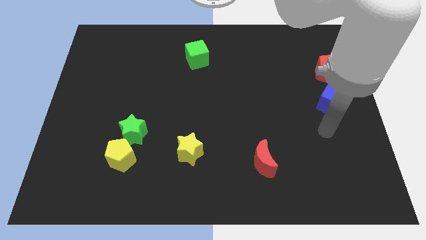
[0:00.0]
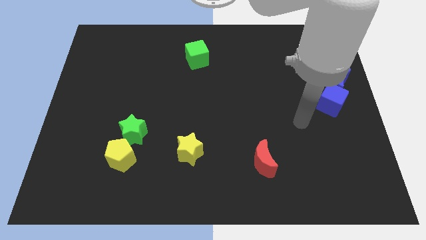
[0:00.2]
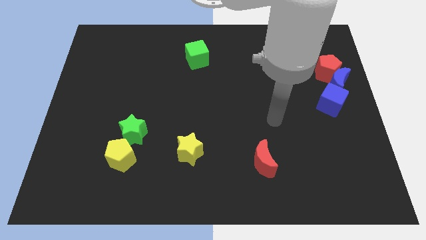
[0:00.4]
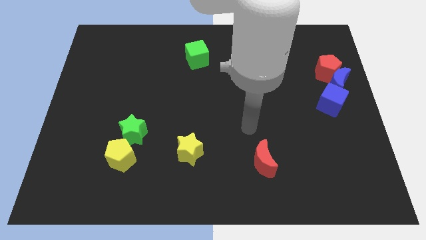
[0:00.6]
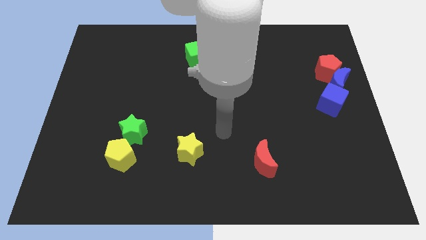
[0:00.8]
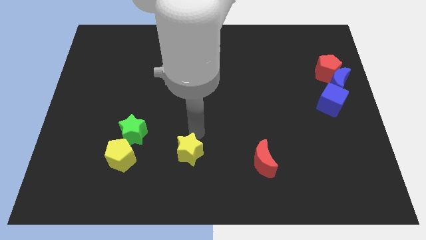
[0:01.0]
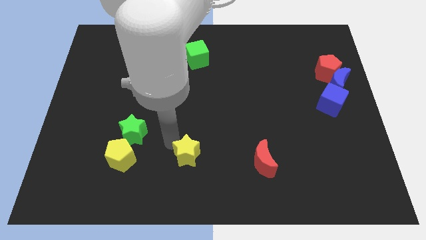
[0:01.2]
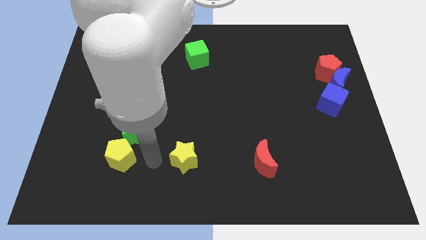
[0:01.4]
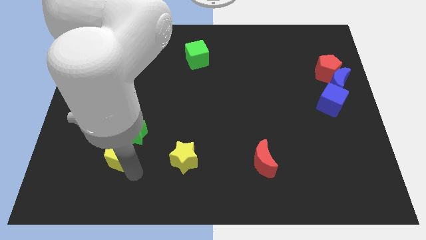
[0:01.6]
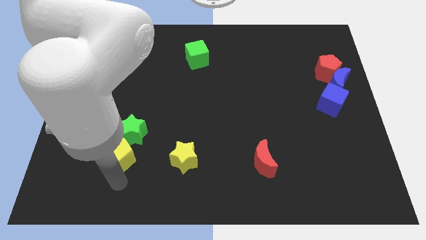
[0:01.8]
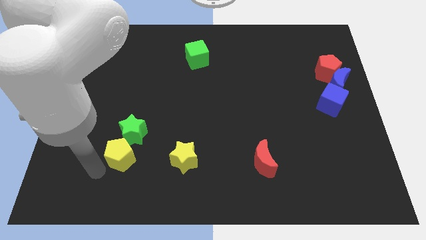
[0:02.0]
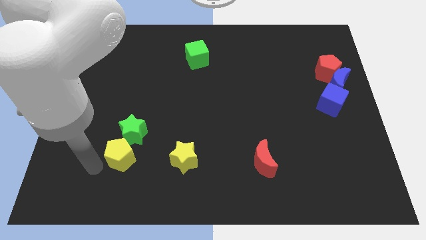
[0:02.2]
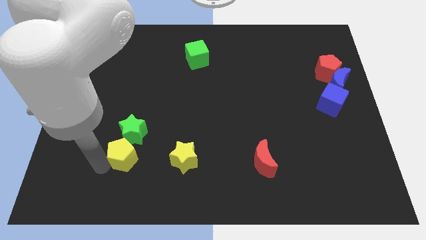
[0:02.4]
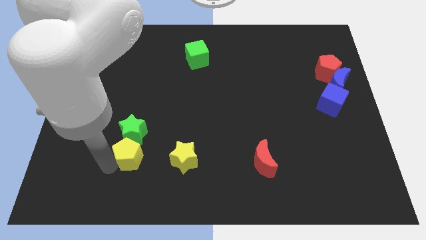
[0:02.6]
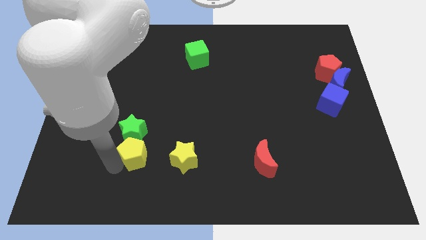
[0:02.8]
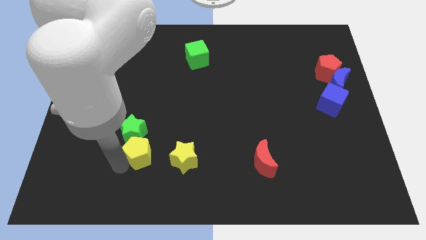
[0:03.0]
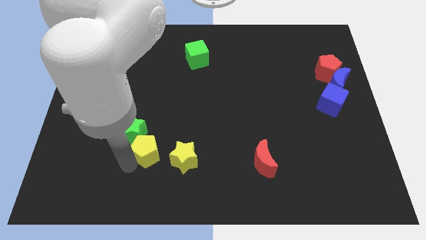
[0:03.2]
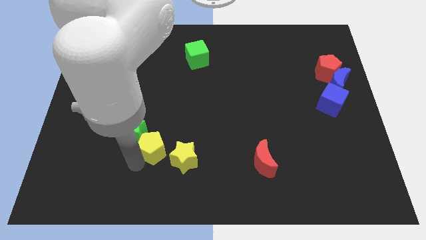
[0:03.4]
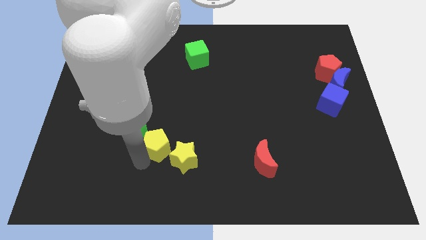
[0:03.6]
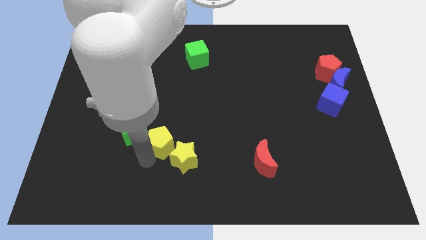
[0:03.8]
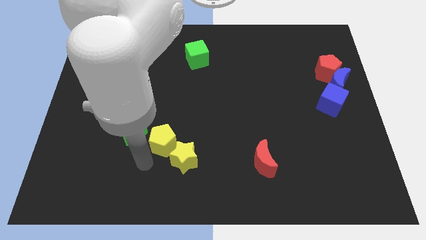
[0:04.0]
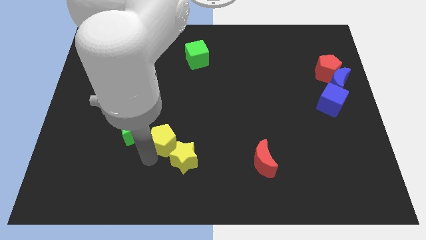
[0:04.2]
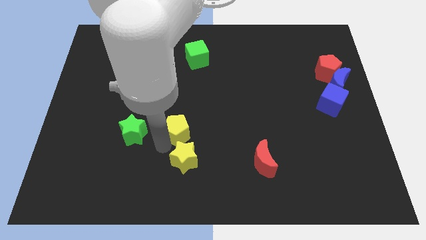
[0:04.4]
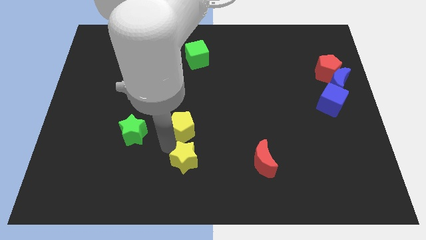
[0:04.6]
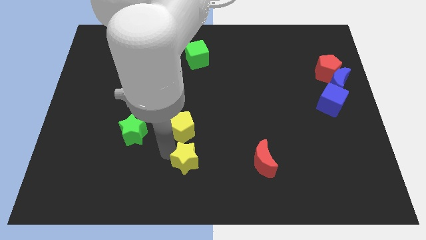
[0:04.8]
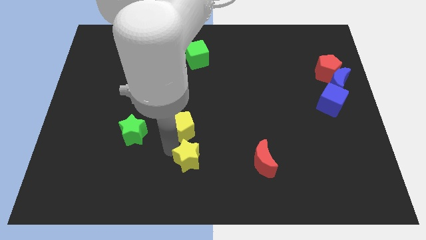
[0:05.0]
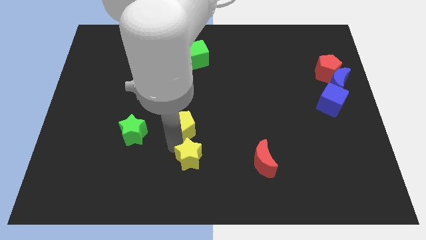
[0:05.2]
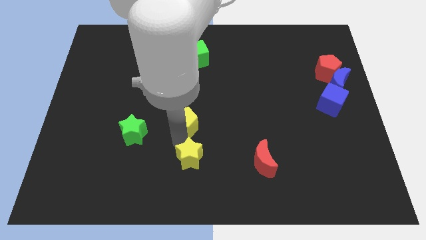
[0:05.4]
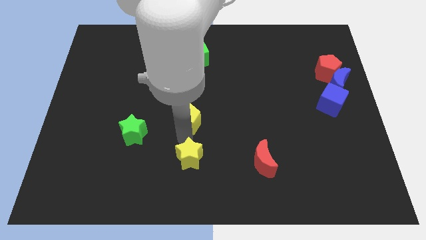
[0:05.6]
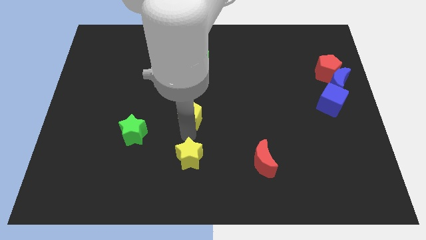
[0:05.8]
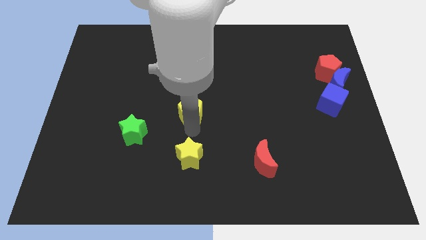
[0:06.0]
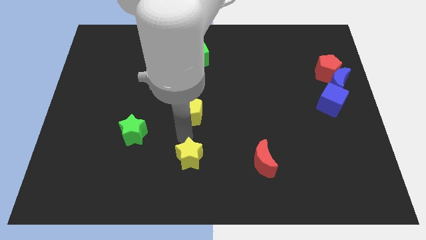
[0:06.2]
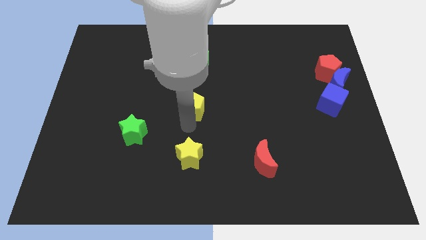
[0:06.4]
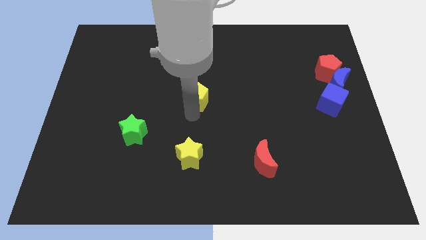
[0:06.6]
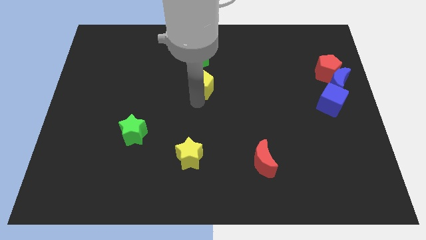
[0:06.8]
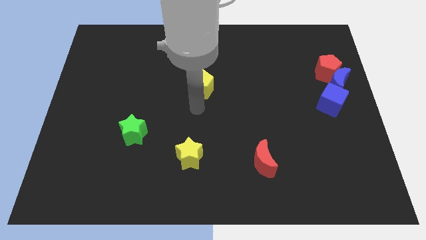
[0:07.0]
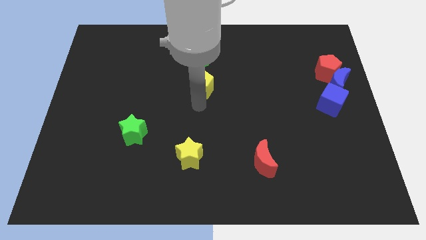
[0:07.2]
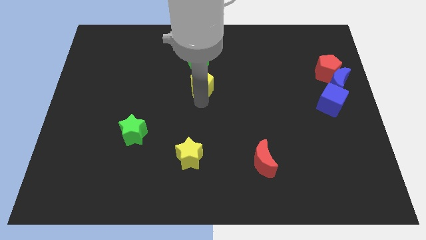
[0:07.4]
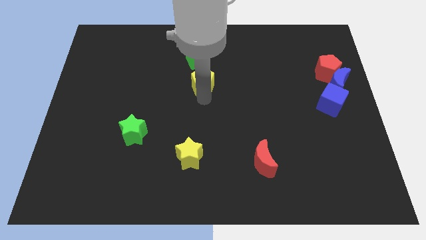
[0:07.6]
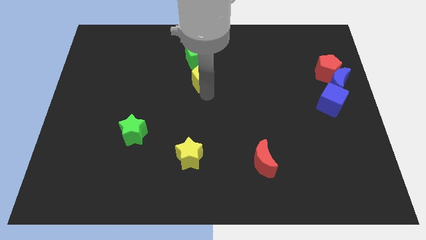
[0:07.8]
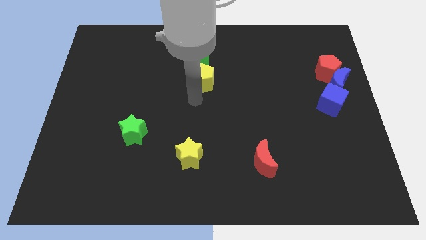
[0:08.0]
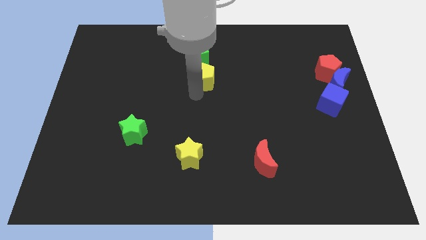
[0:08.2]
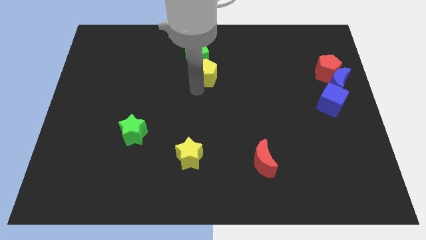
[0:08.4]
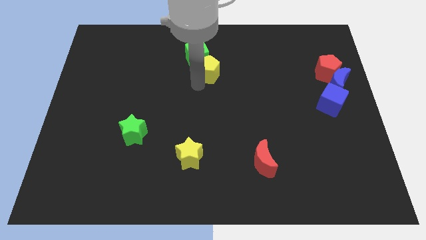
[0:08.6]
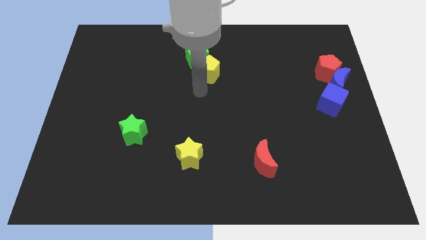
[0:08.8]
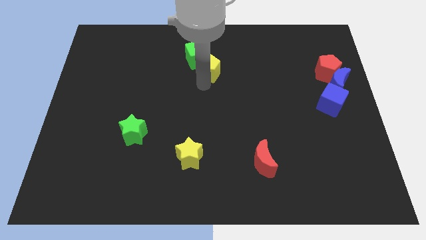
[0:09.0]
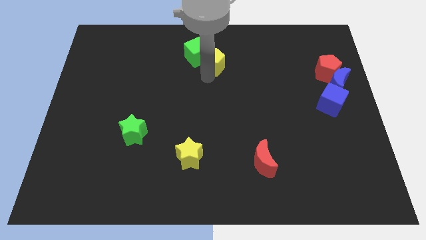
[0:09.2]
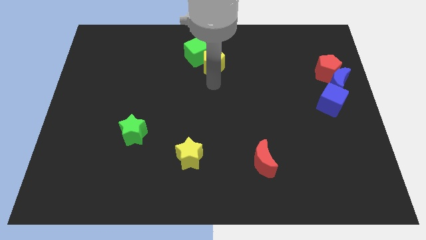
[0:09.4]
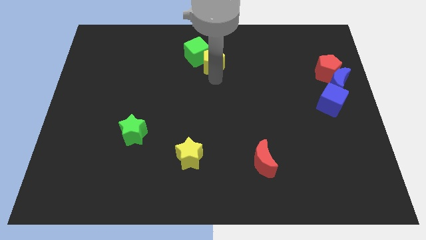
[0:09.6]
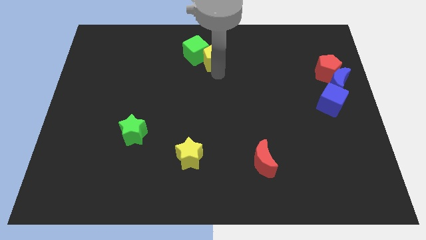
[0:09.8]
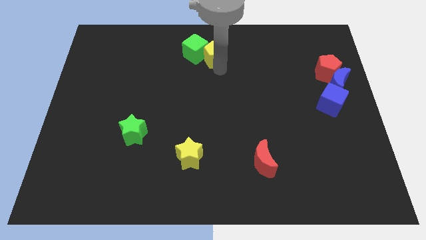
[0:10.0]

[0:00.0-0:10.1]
put the yellow pentagon to the top side

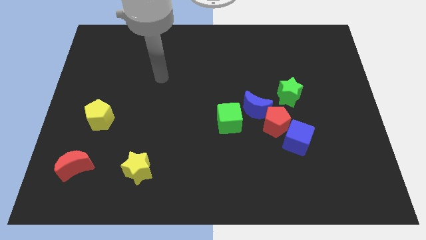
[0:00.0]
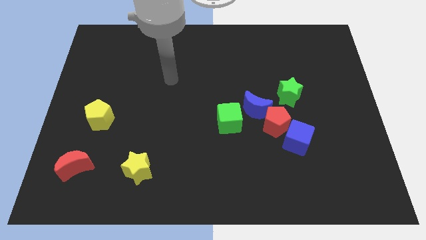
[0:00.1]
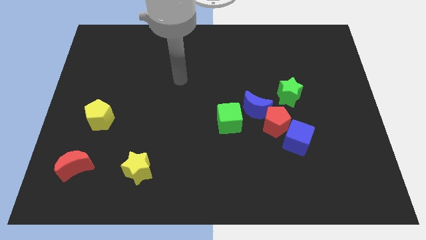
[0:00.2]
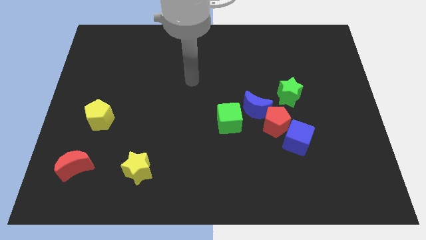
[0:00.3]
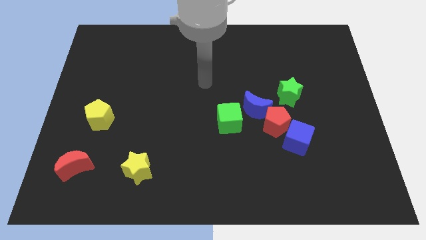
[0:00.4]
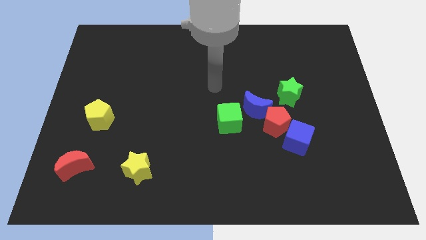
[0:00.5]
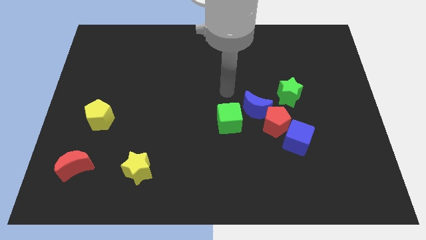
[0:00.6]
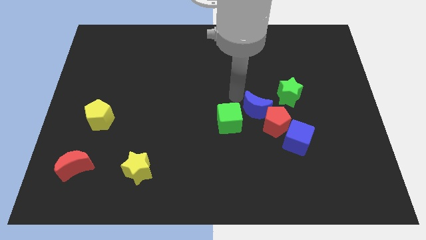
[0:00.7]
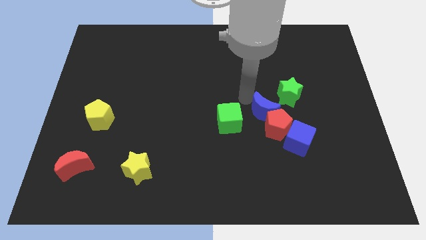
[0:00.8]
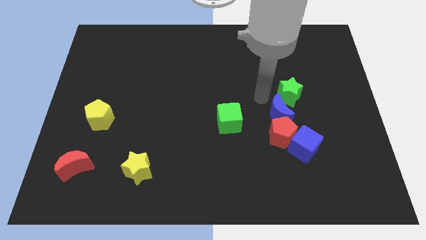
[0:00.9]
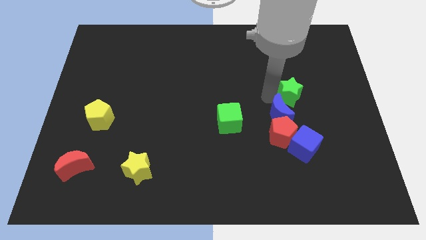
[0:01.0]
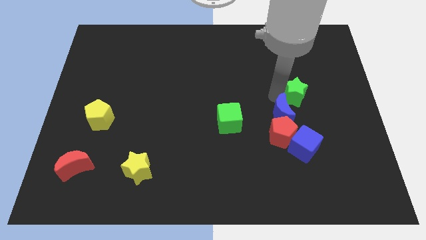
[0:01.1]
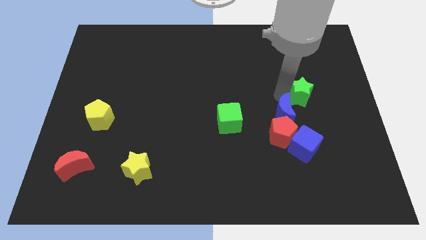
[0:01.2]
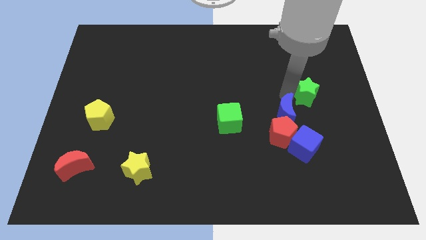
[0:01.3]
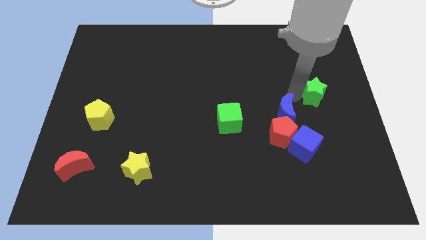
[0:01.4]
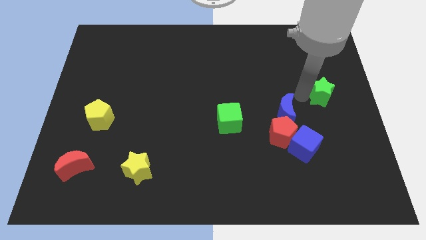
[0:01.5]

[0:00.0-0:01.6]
push the green star to the right side
